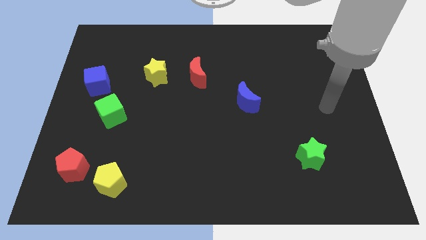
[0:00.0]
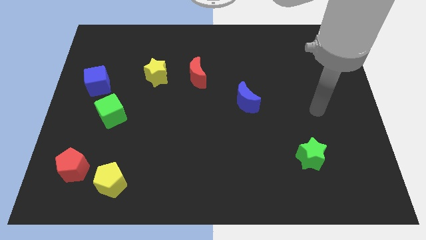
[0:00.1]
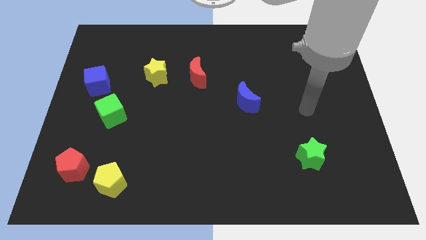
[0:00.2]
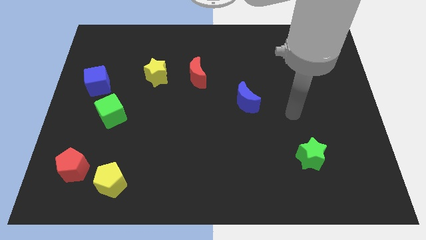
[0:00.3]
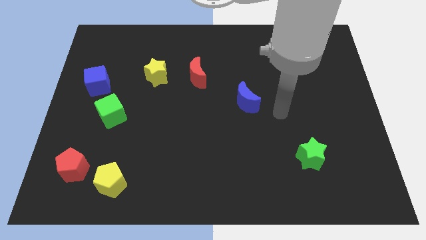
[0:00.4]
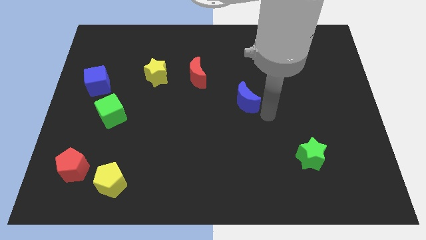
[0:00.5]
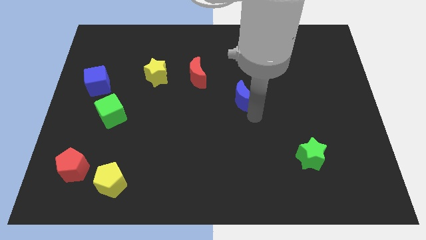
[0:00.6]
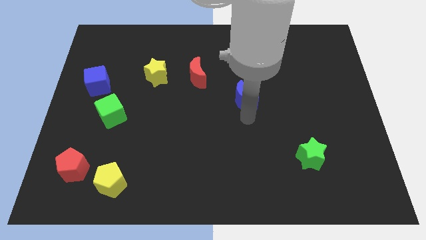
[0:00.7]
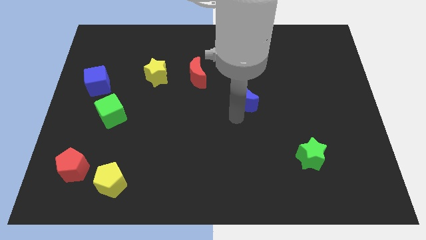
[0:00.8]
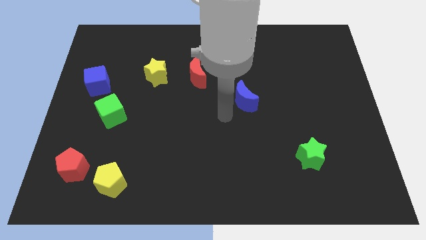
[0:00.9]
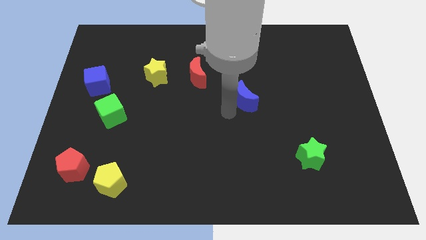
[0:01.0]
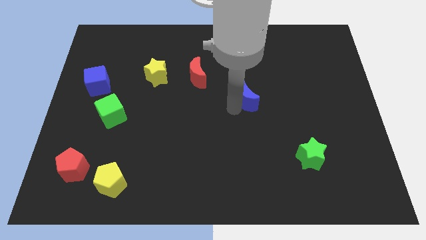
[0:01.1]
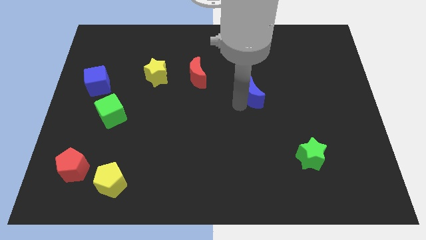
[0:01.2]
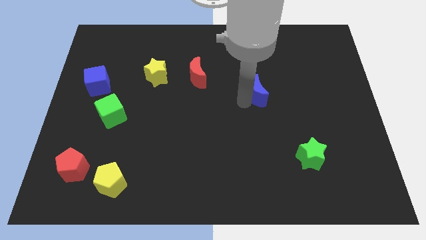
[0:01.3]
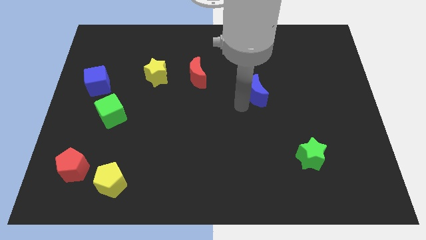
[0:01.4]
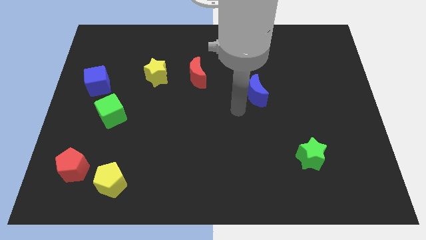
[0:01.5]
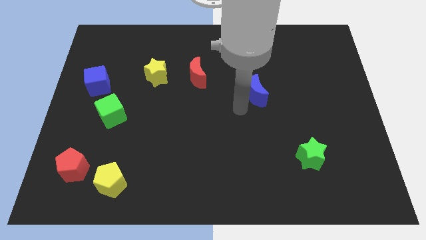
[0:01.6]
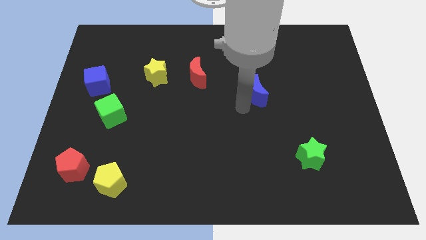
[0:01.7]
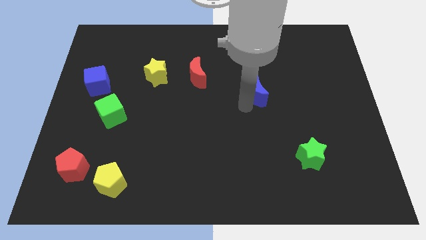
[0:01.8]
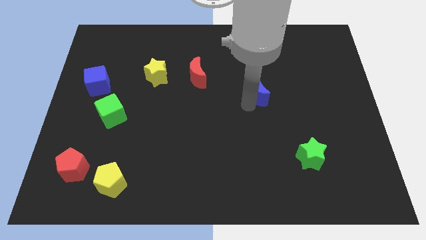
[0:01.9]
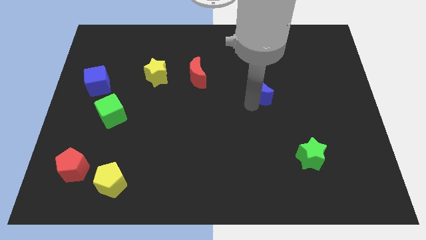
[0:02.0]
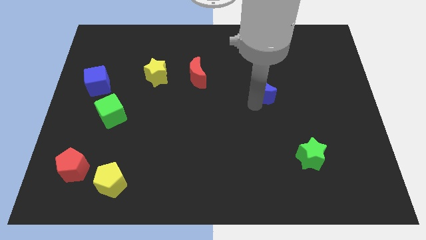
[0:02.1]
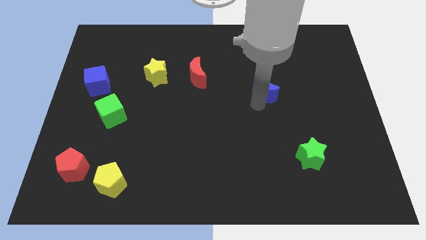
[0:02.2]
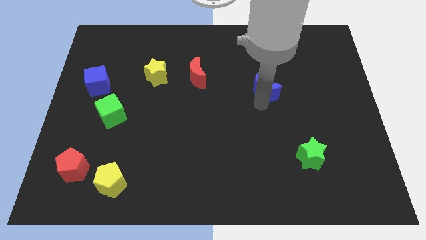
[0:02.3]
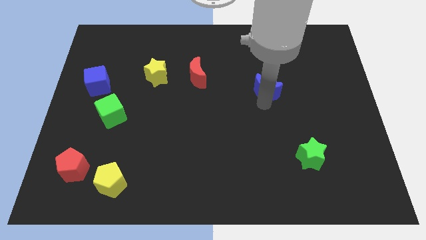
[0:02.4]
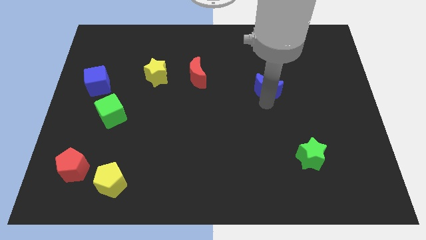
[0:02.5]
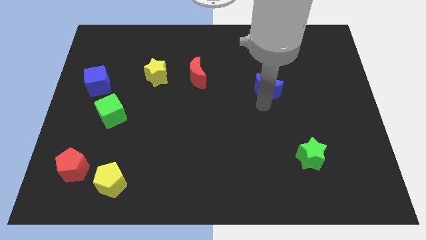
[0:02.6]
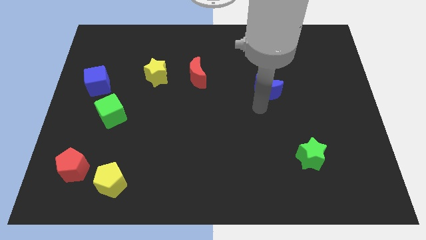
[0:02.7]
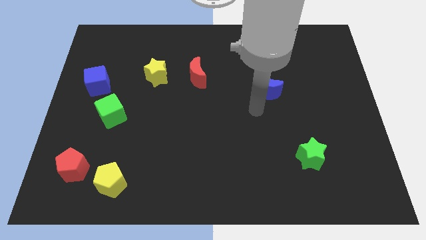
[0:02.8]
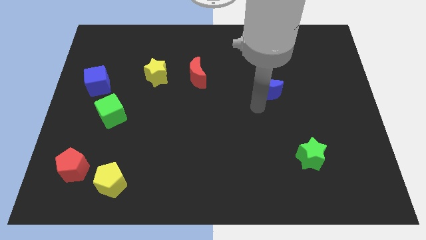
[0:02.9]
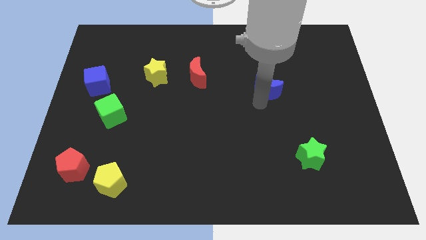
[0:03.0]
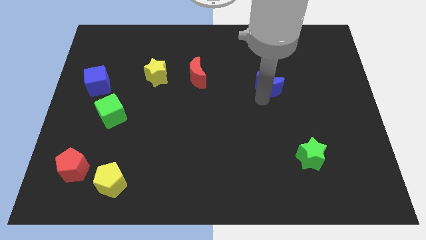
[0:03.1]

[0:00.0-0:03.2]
slide the blue moon upwards and then to the right slightly

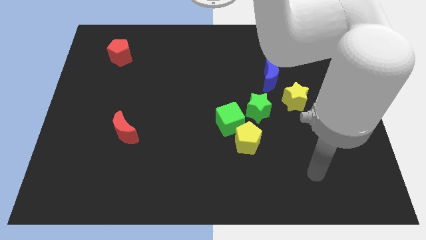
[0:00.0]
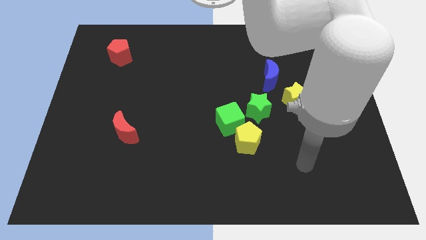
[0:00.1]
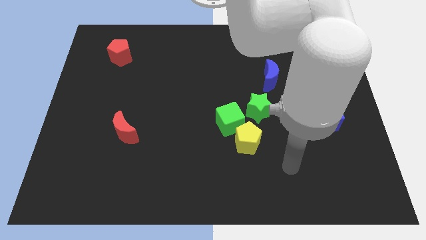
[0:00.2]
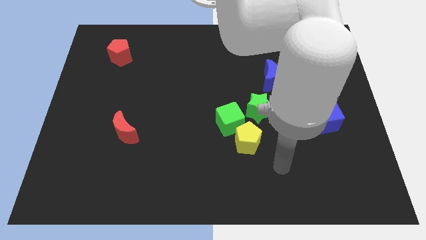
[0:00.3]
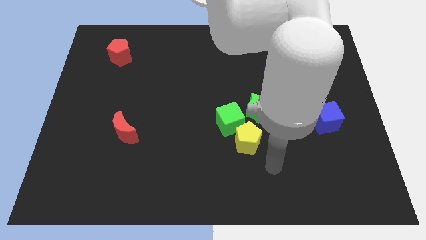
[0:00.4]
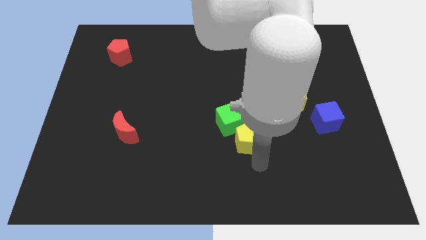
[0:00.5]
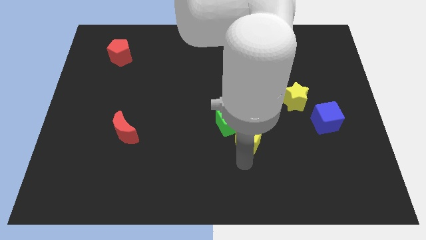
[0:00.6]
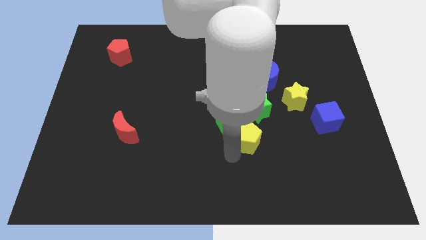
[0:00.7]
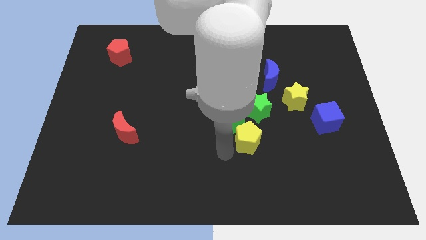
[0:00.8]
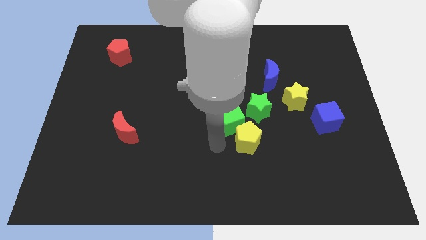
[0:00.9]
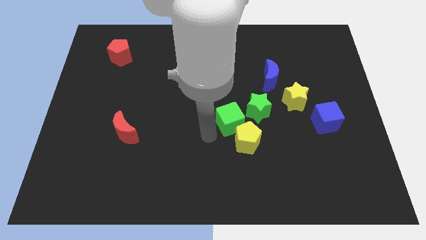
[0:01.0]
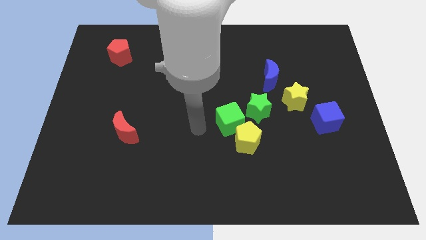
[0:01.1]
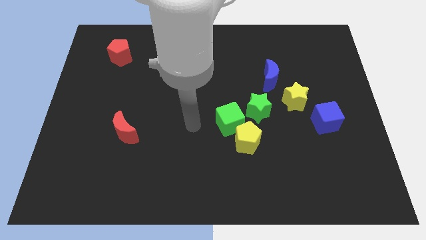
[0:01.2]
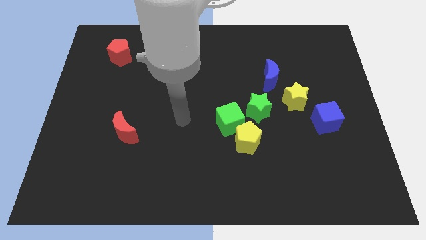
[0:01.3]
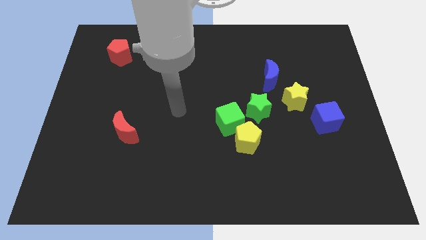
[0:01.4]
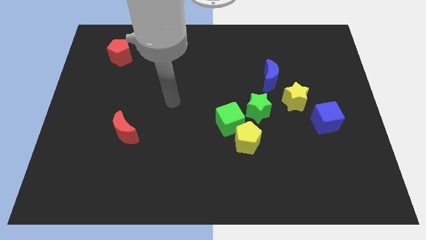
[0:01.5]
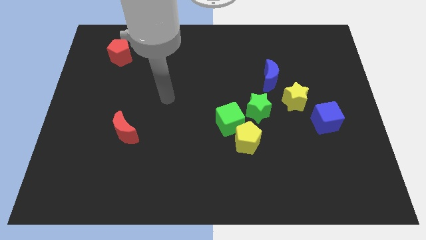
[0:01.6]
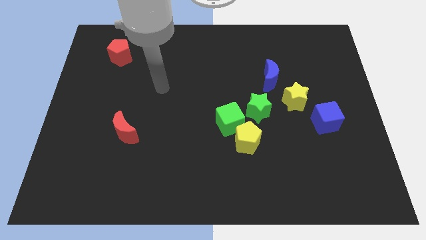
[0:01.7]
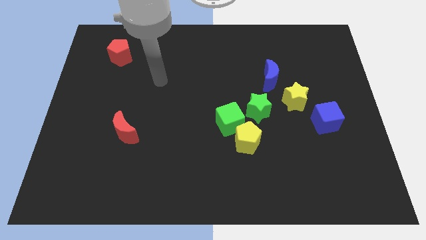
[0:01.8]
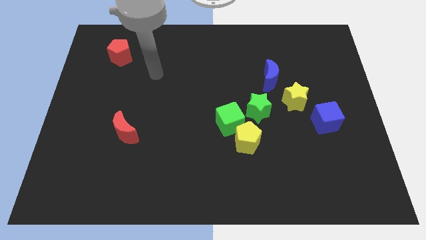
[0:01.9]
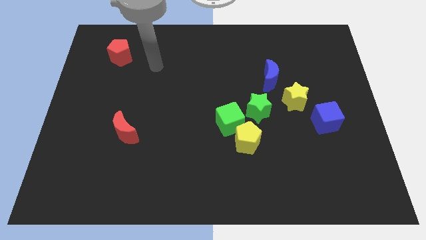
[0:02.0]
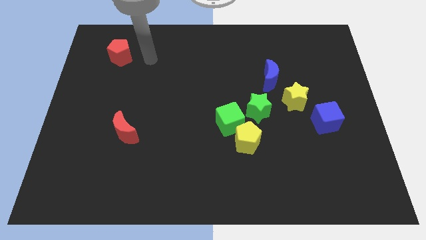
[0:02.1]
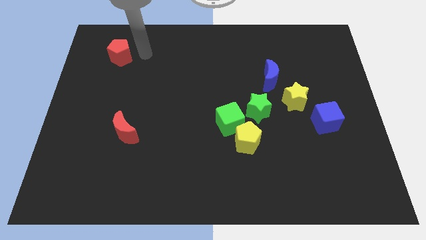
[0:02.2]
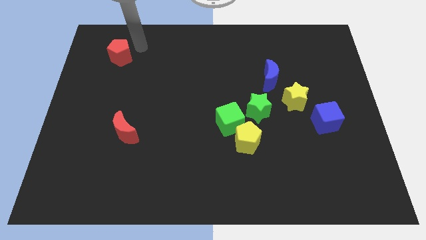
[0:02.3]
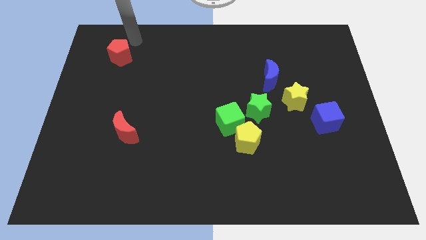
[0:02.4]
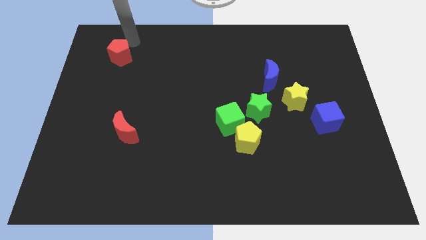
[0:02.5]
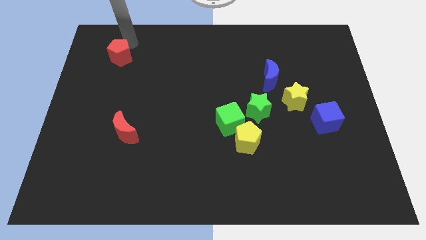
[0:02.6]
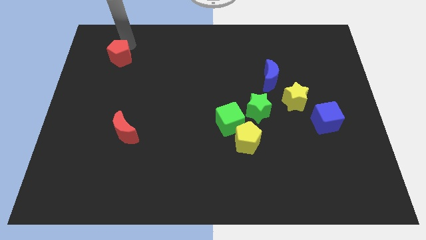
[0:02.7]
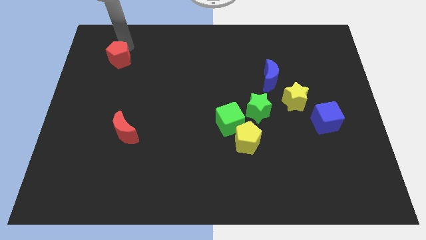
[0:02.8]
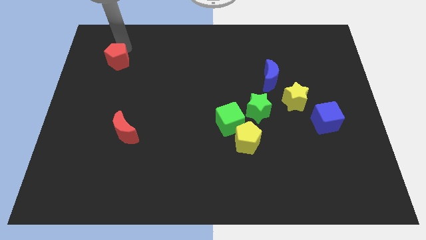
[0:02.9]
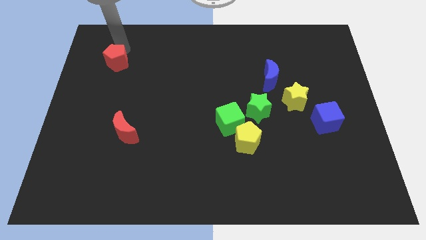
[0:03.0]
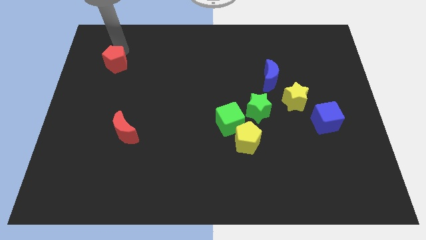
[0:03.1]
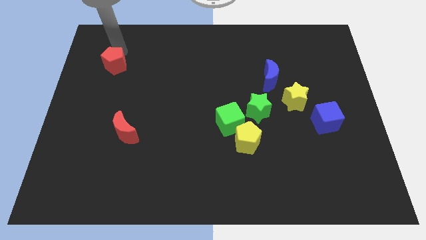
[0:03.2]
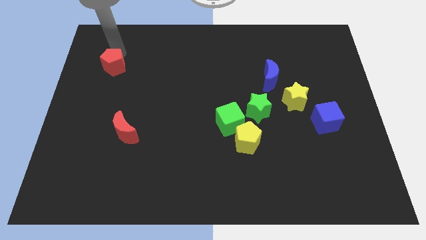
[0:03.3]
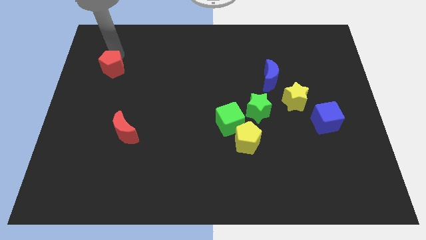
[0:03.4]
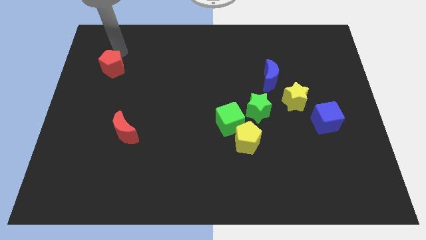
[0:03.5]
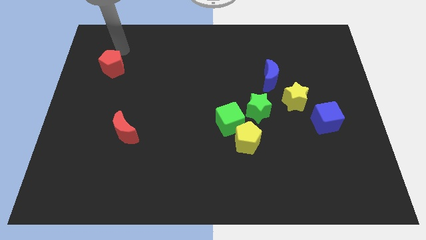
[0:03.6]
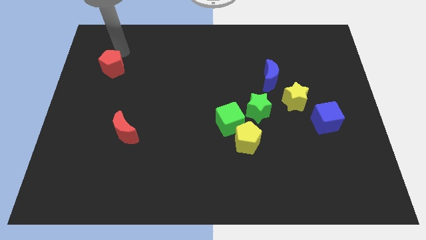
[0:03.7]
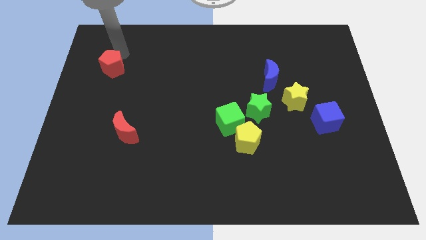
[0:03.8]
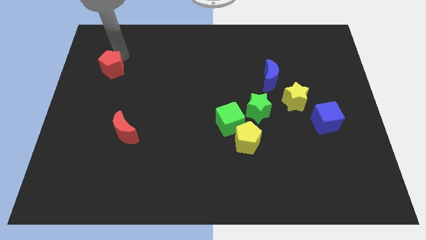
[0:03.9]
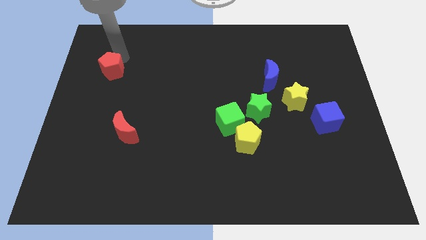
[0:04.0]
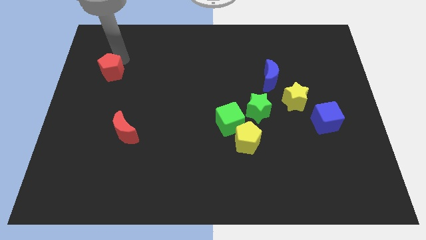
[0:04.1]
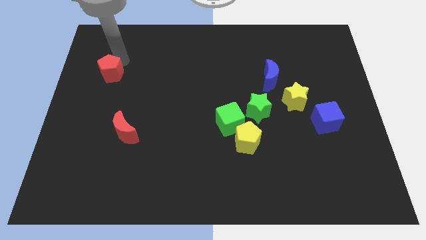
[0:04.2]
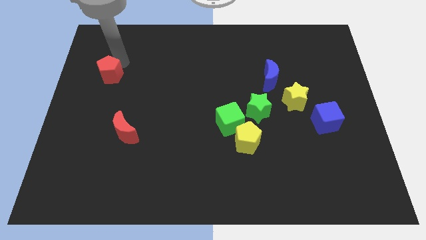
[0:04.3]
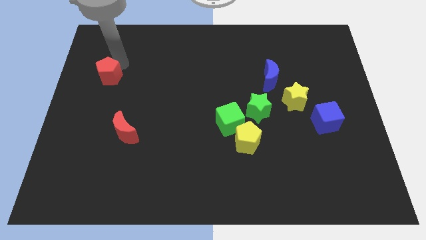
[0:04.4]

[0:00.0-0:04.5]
slightly push the red pentagon downwards
